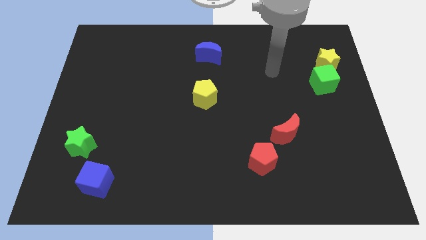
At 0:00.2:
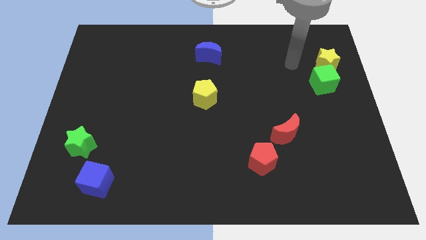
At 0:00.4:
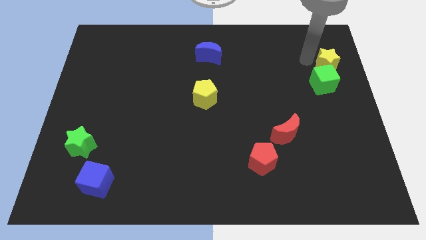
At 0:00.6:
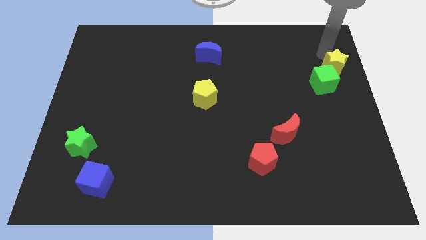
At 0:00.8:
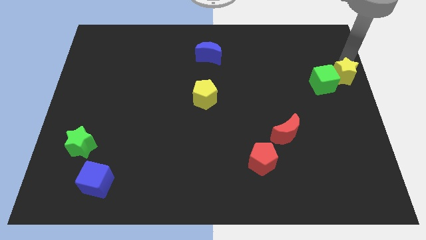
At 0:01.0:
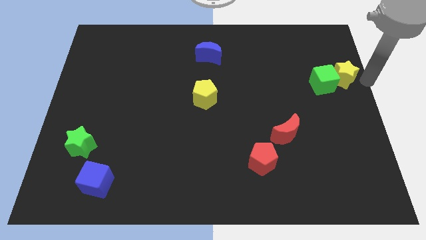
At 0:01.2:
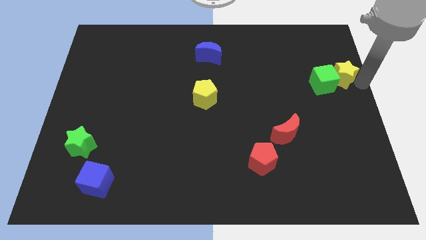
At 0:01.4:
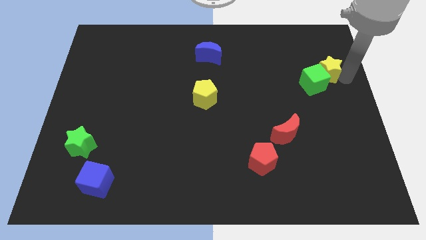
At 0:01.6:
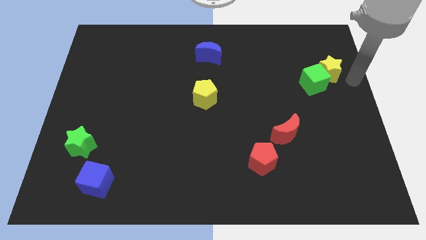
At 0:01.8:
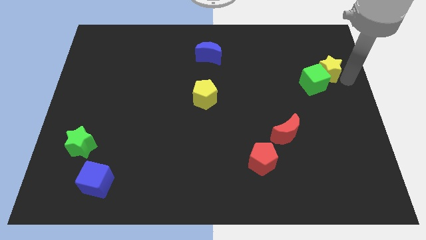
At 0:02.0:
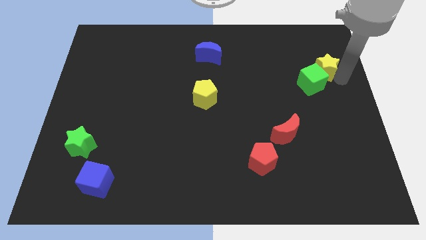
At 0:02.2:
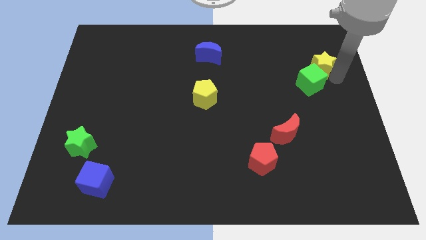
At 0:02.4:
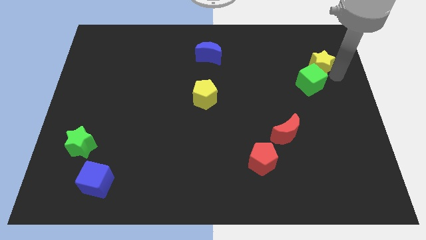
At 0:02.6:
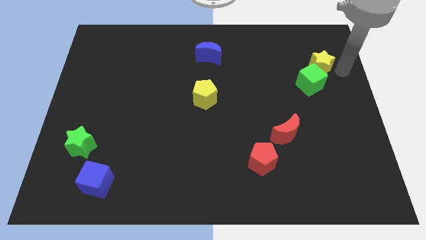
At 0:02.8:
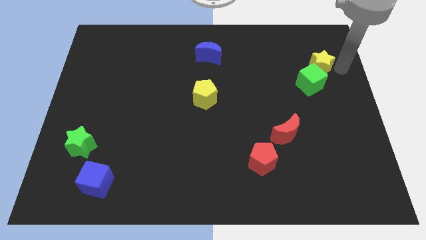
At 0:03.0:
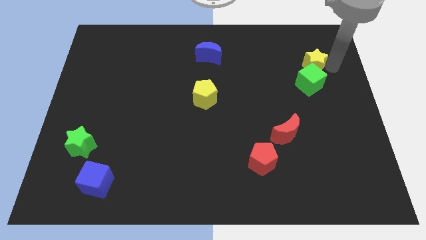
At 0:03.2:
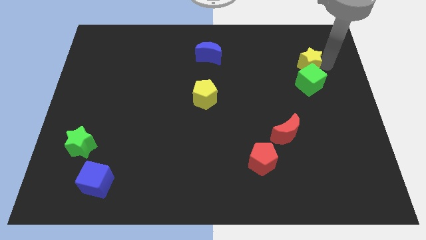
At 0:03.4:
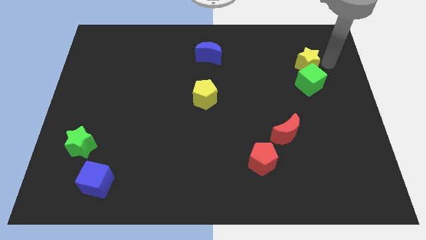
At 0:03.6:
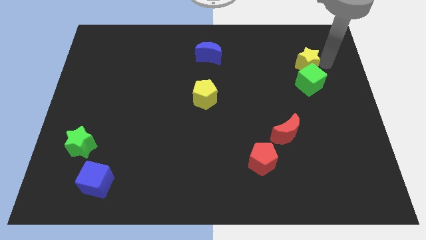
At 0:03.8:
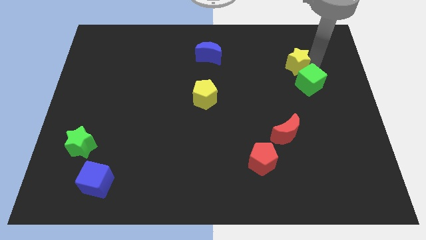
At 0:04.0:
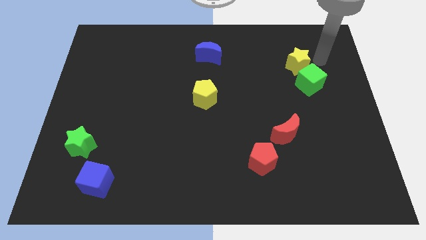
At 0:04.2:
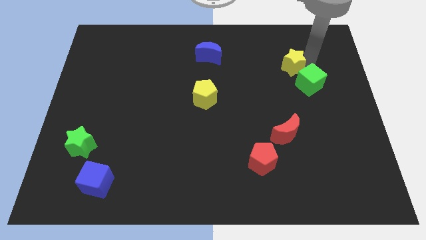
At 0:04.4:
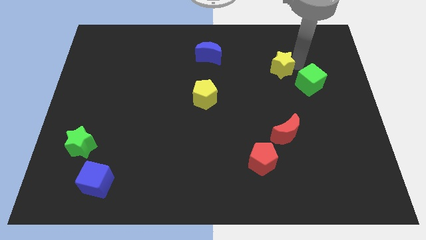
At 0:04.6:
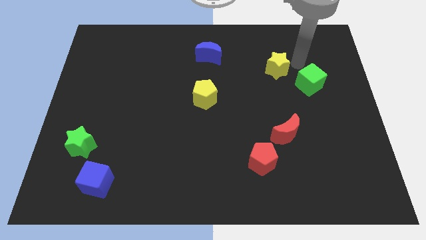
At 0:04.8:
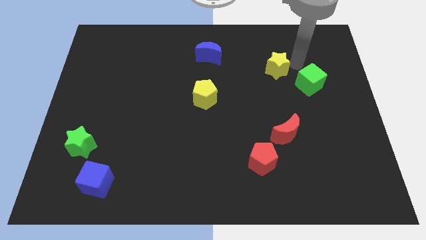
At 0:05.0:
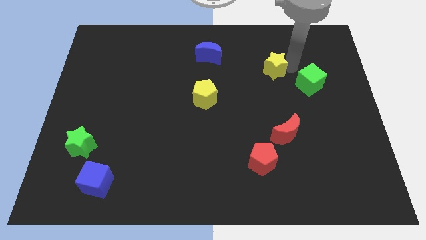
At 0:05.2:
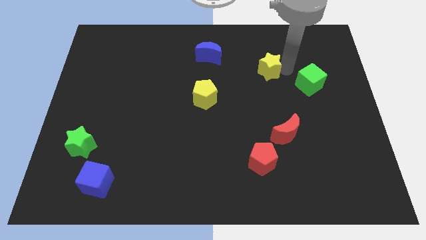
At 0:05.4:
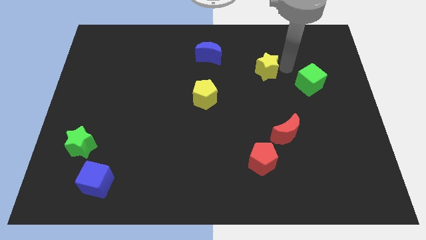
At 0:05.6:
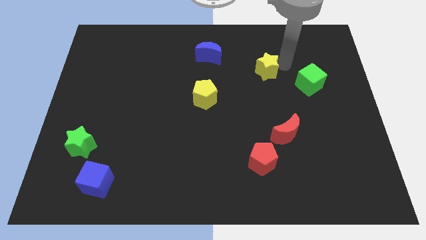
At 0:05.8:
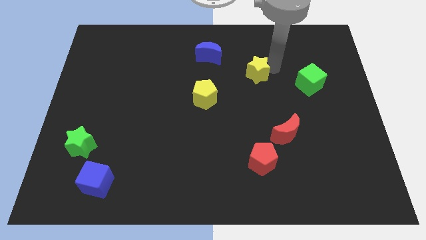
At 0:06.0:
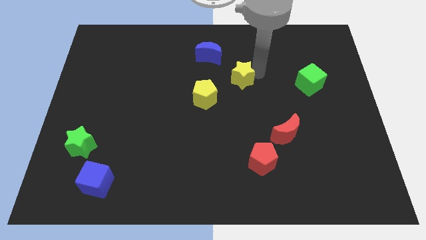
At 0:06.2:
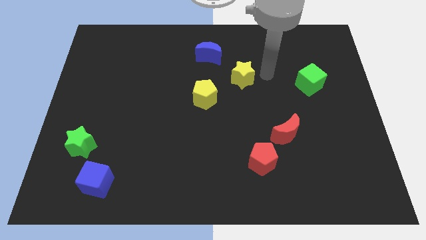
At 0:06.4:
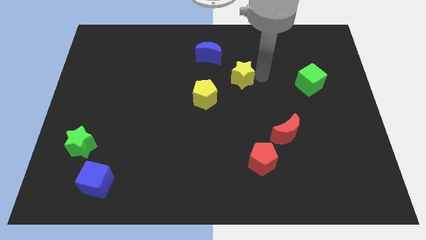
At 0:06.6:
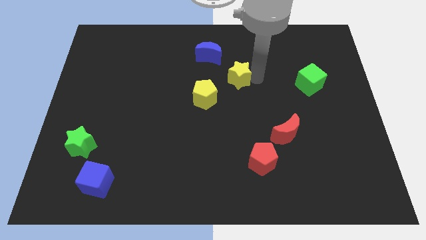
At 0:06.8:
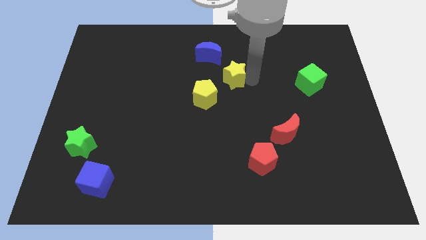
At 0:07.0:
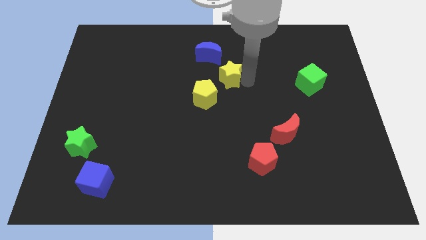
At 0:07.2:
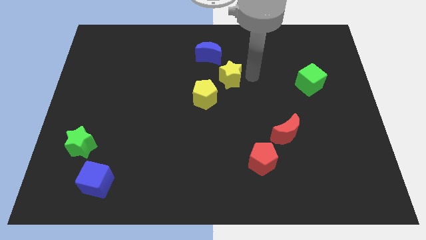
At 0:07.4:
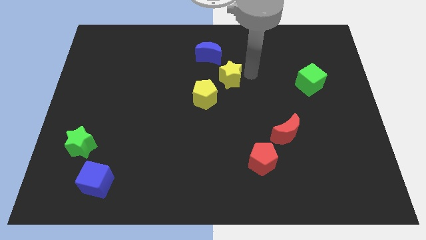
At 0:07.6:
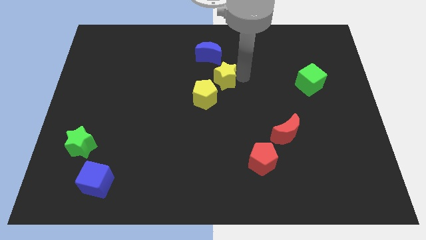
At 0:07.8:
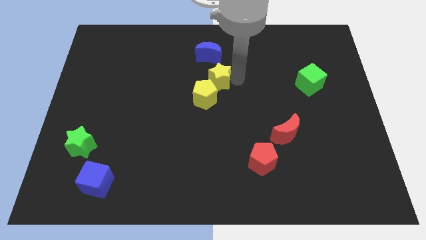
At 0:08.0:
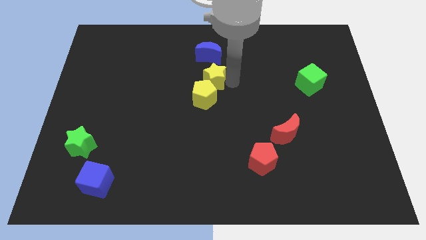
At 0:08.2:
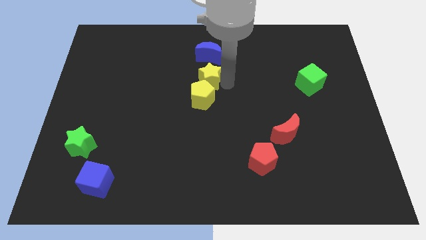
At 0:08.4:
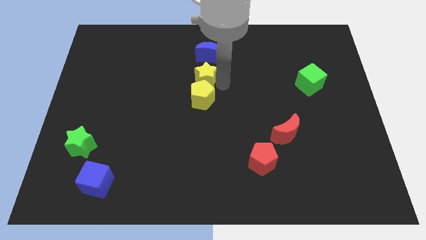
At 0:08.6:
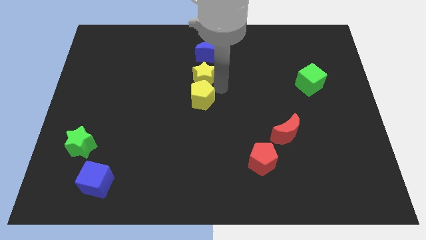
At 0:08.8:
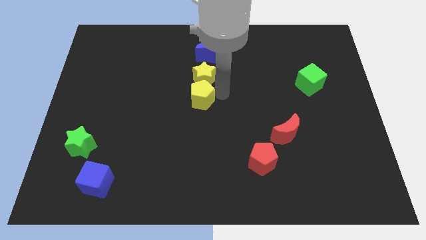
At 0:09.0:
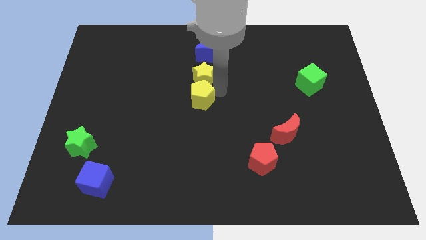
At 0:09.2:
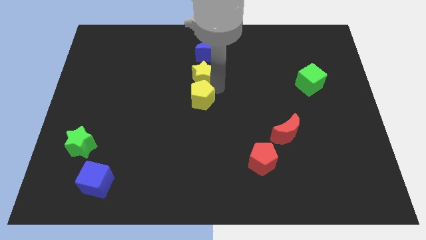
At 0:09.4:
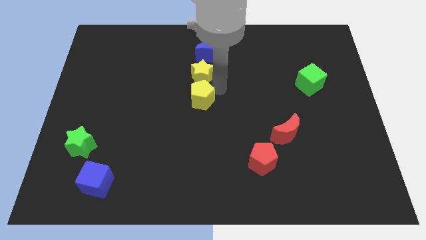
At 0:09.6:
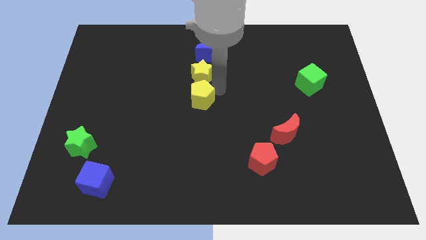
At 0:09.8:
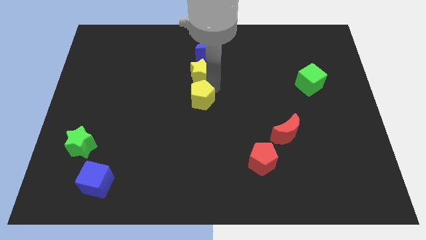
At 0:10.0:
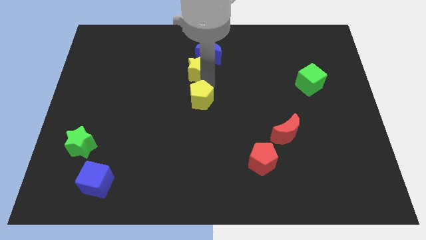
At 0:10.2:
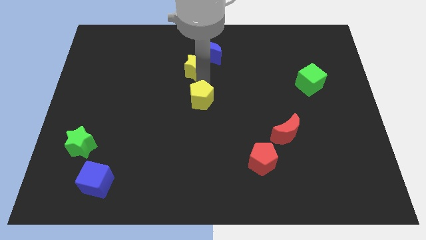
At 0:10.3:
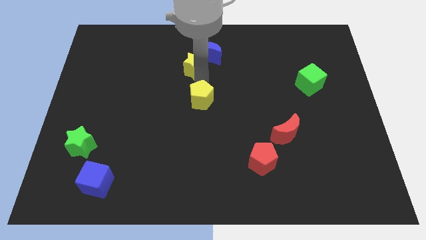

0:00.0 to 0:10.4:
slide the yellow star just left of the blue moon

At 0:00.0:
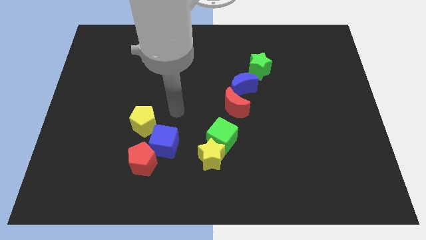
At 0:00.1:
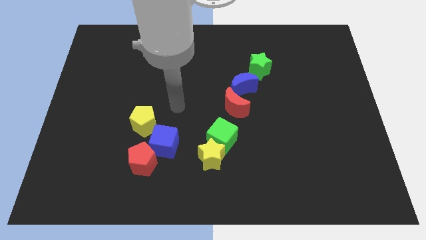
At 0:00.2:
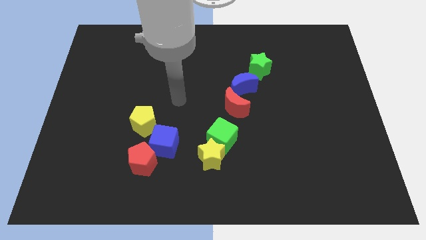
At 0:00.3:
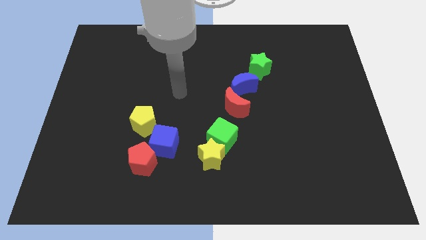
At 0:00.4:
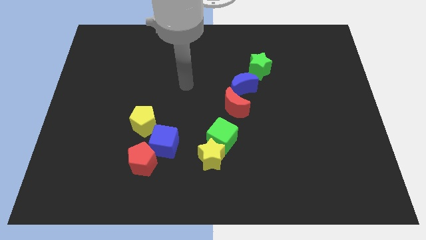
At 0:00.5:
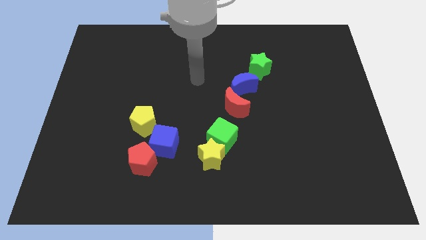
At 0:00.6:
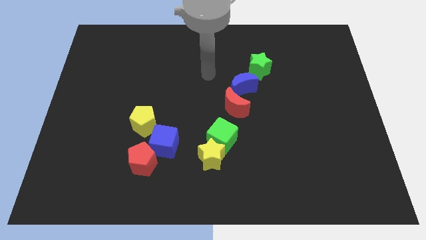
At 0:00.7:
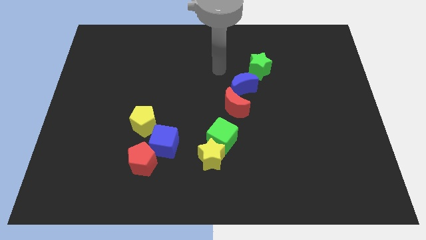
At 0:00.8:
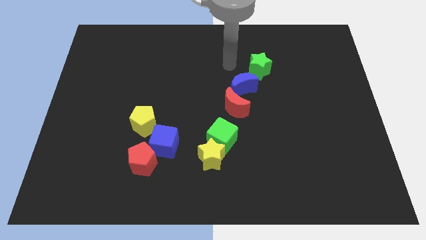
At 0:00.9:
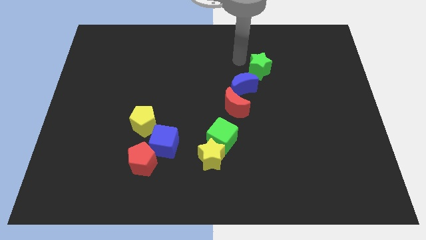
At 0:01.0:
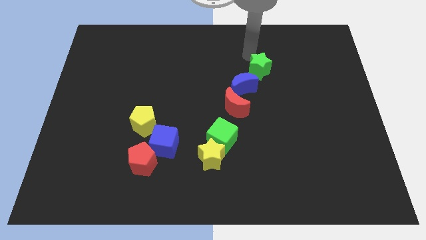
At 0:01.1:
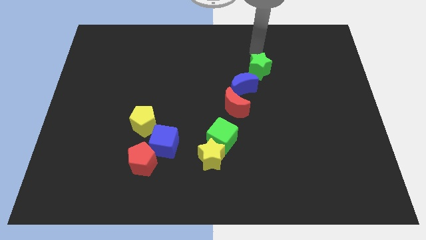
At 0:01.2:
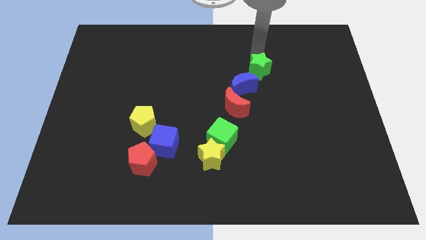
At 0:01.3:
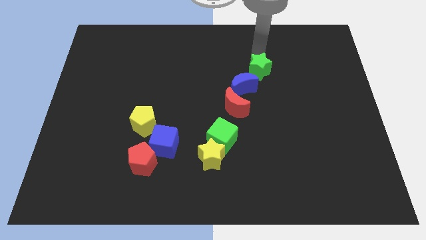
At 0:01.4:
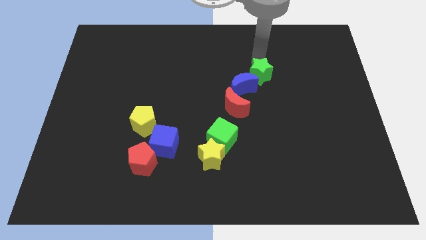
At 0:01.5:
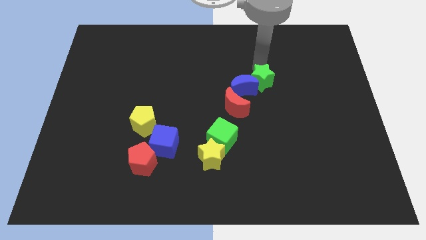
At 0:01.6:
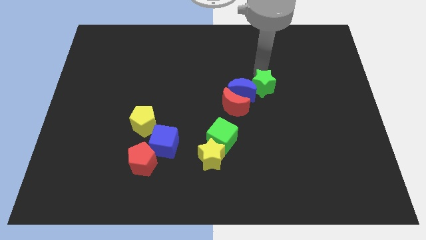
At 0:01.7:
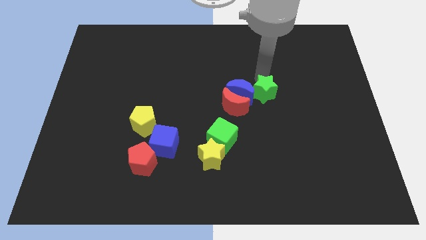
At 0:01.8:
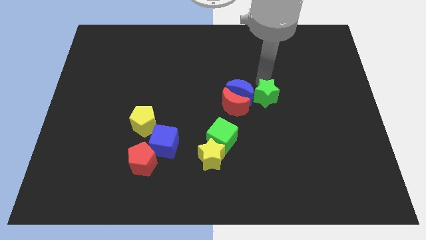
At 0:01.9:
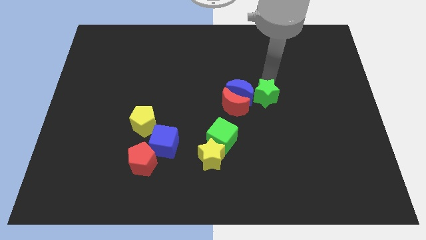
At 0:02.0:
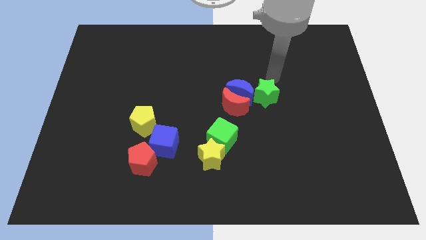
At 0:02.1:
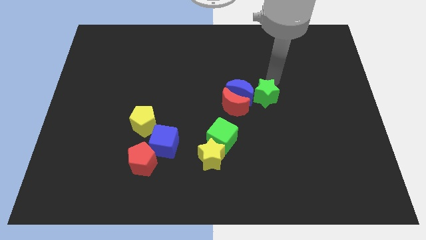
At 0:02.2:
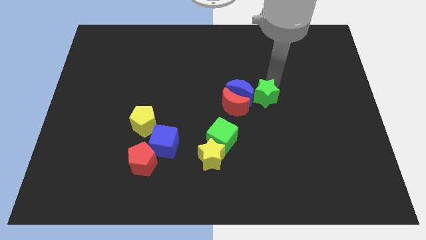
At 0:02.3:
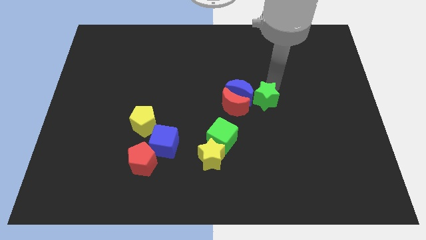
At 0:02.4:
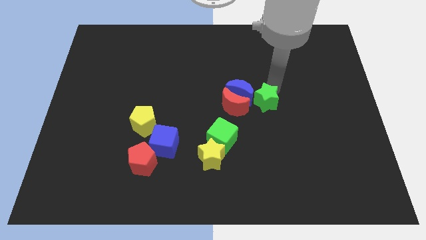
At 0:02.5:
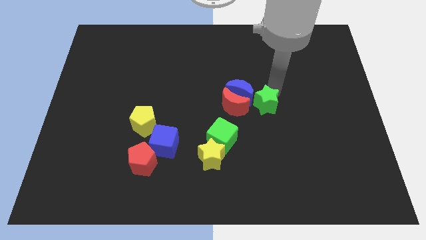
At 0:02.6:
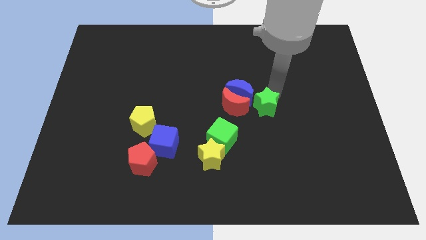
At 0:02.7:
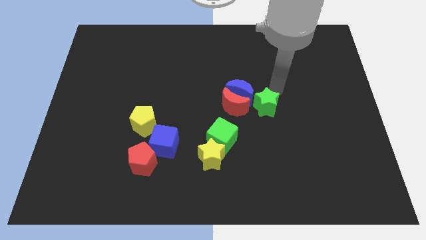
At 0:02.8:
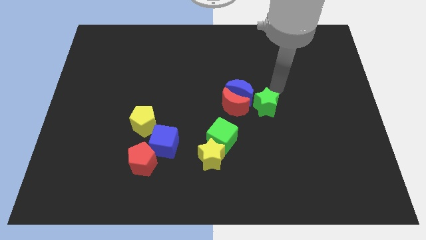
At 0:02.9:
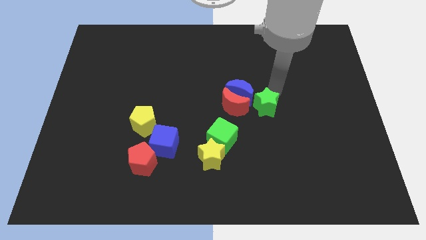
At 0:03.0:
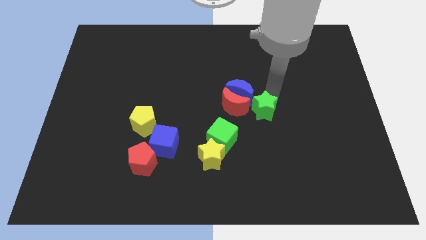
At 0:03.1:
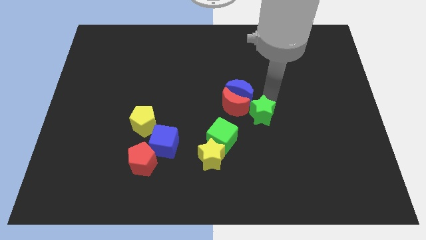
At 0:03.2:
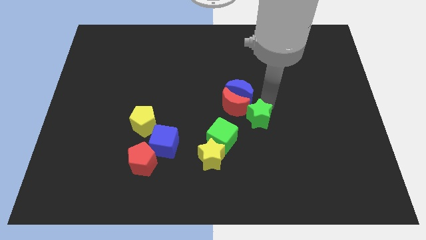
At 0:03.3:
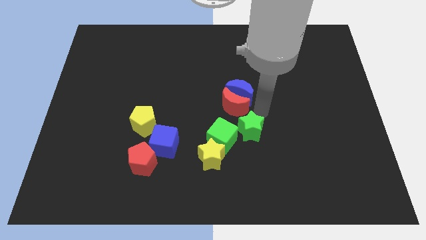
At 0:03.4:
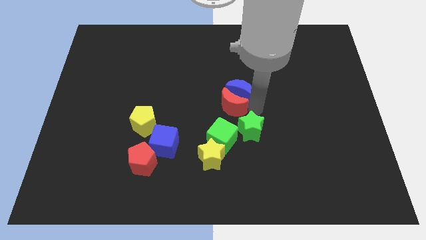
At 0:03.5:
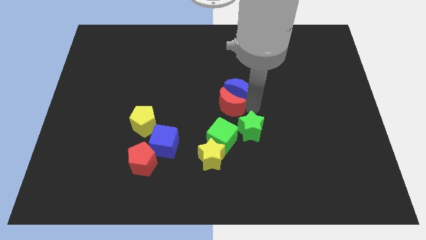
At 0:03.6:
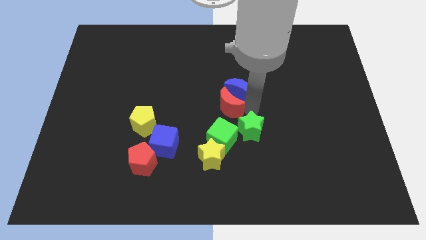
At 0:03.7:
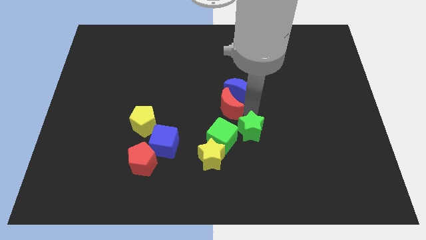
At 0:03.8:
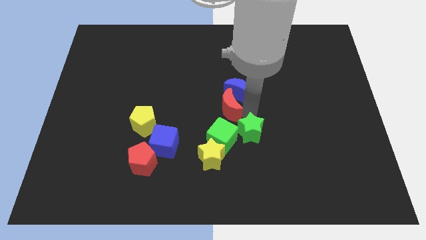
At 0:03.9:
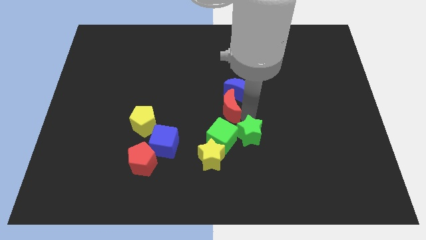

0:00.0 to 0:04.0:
push the green star to the bottom right side of the green cube
